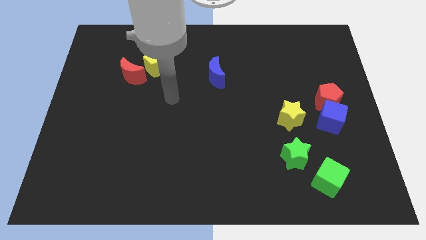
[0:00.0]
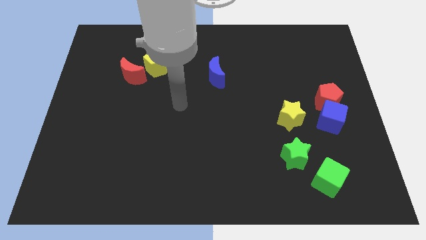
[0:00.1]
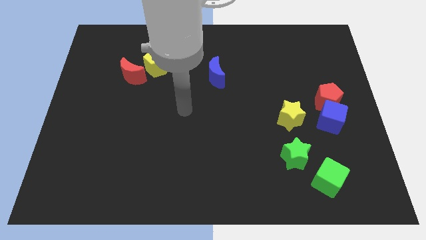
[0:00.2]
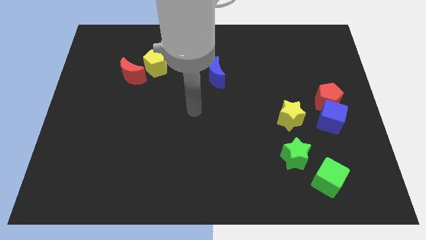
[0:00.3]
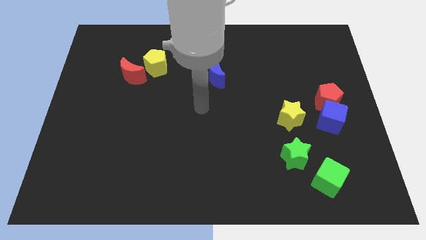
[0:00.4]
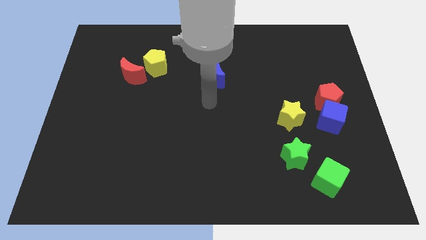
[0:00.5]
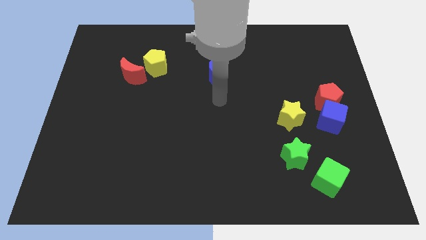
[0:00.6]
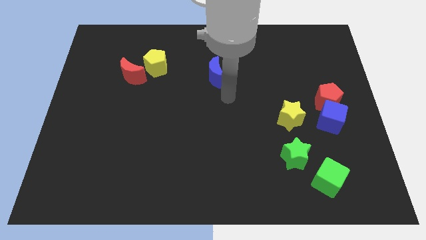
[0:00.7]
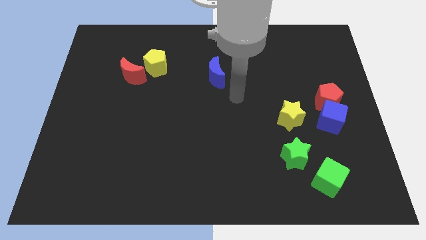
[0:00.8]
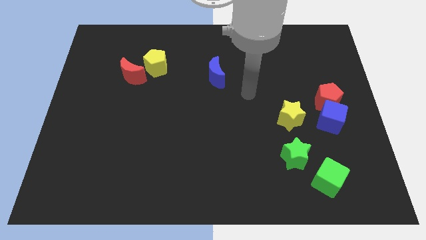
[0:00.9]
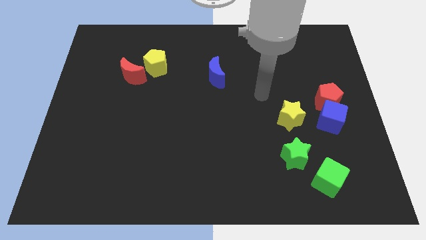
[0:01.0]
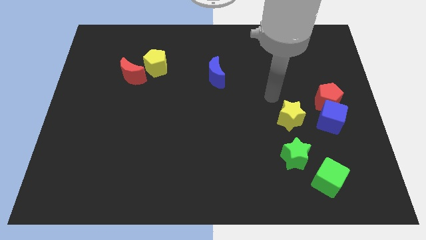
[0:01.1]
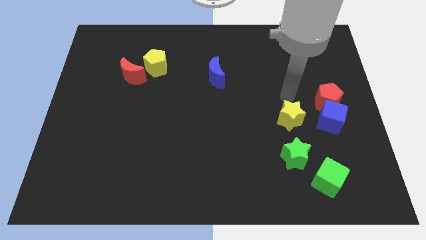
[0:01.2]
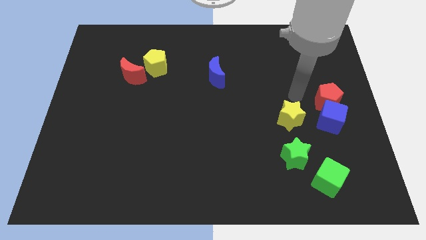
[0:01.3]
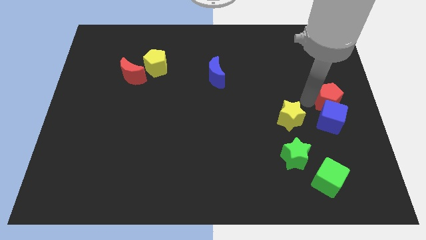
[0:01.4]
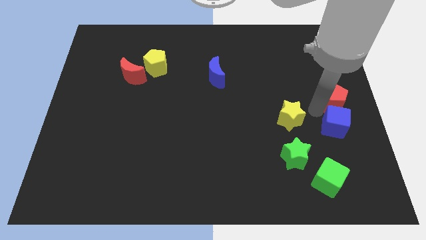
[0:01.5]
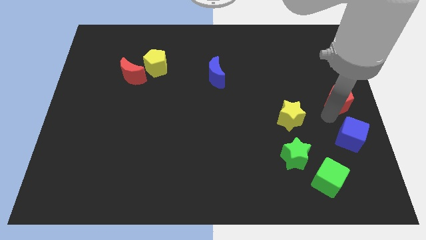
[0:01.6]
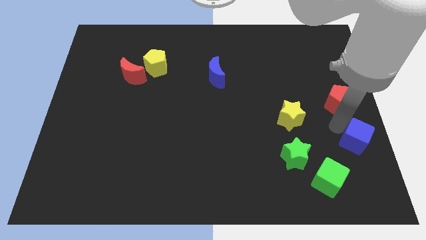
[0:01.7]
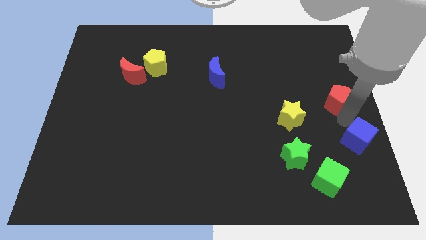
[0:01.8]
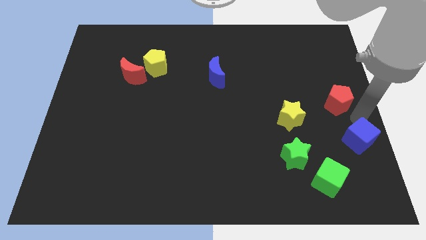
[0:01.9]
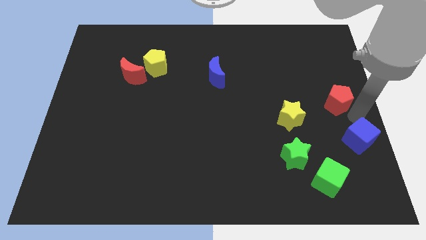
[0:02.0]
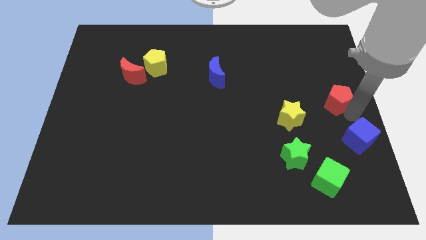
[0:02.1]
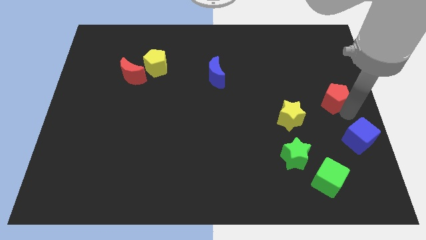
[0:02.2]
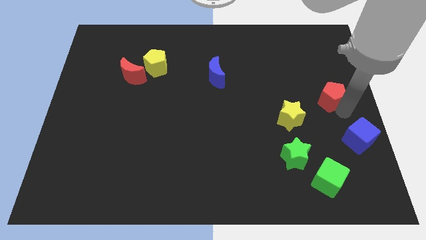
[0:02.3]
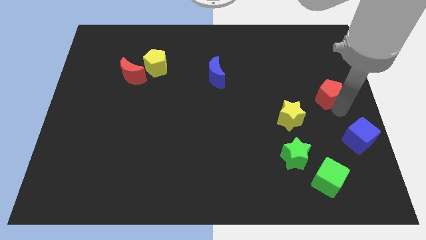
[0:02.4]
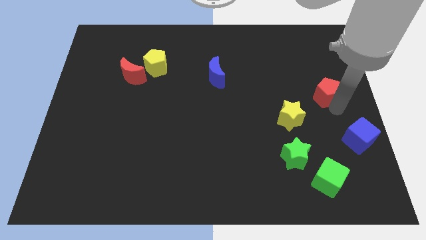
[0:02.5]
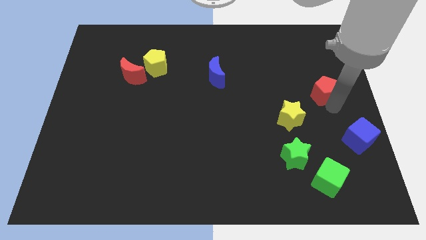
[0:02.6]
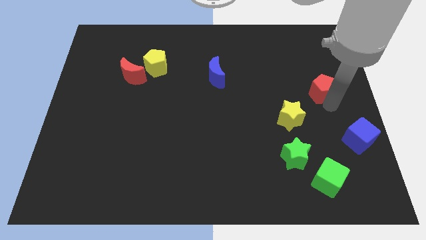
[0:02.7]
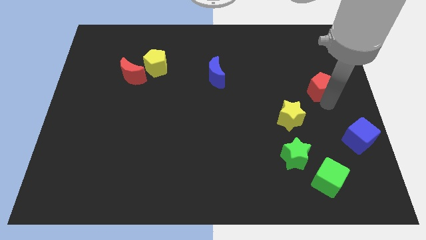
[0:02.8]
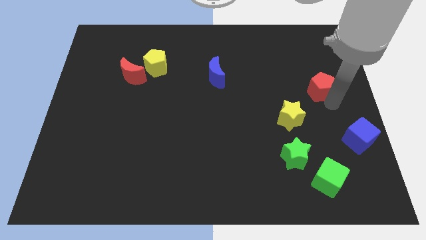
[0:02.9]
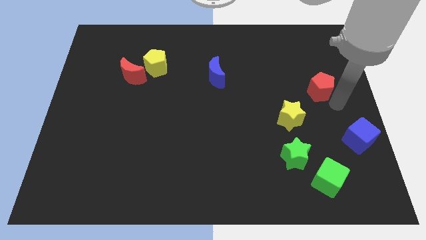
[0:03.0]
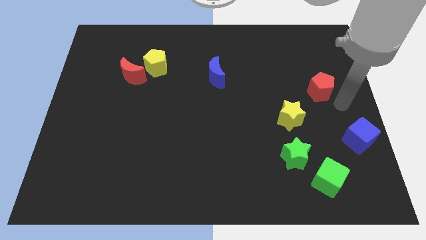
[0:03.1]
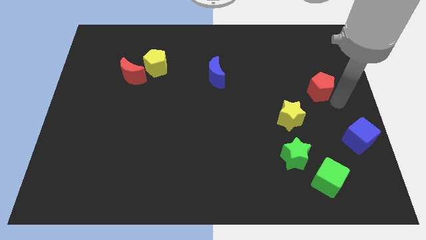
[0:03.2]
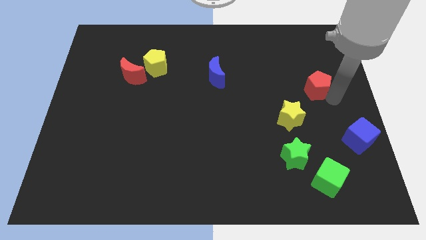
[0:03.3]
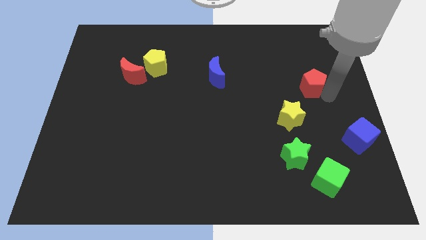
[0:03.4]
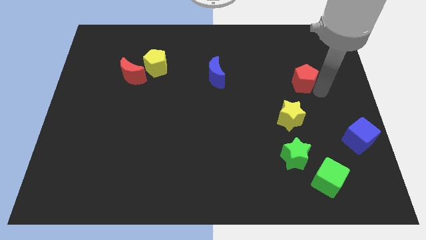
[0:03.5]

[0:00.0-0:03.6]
move the red pentagon up and to the left diagonally a little

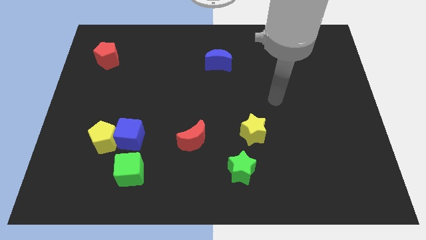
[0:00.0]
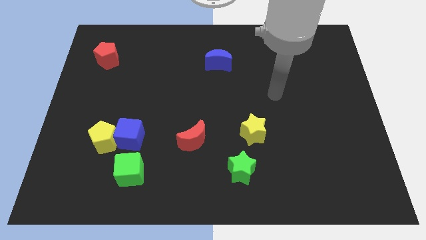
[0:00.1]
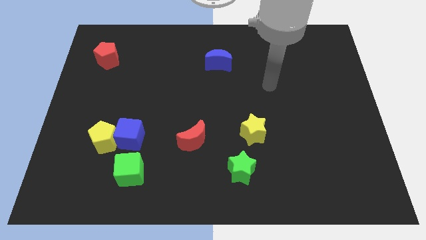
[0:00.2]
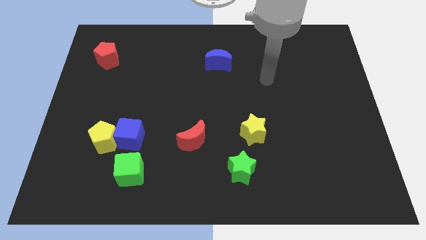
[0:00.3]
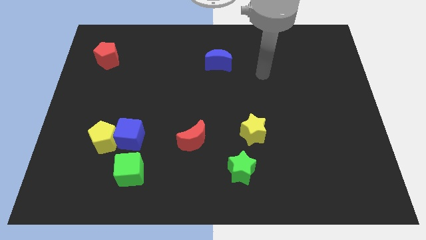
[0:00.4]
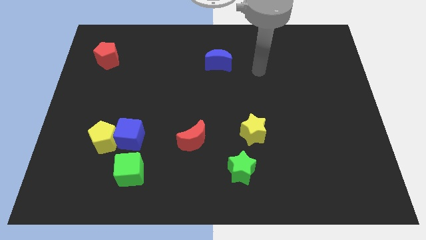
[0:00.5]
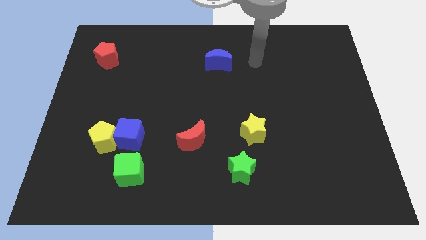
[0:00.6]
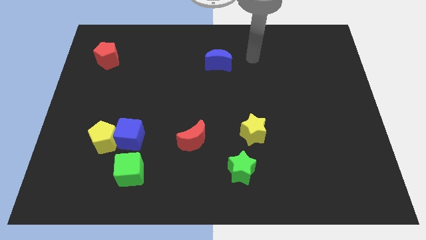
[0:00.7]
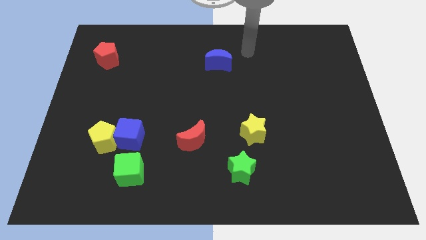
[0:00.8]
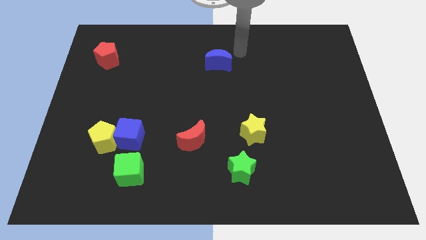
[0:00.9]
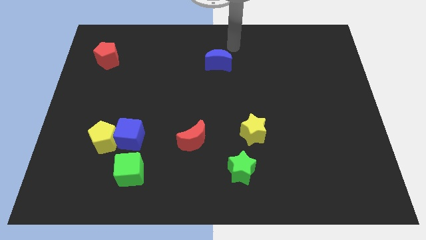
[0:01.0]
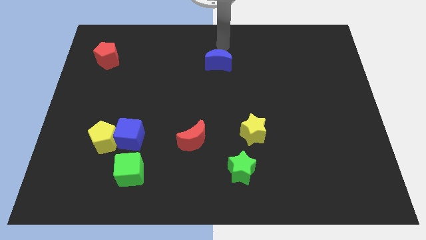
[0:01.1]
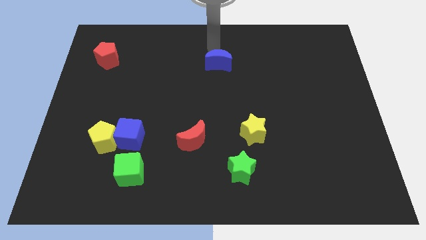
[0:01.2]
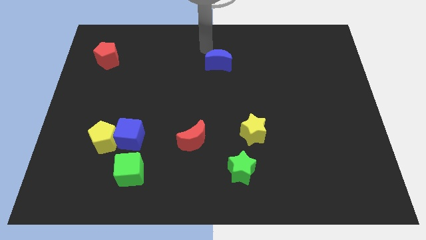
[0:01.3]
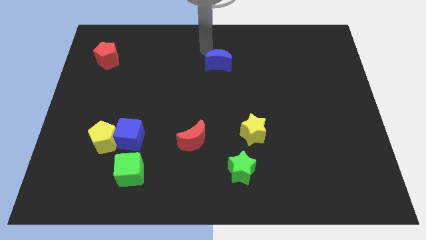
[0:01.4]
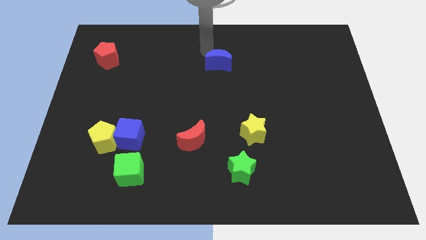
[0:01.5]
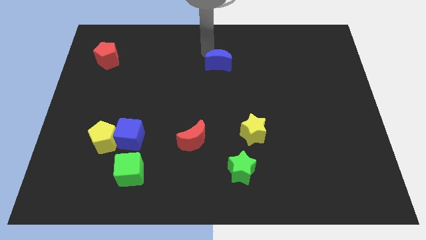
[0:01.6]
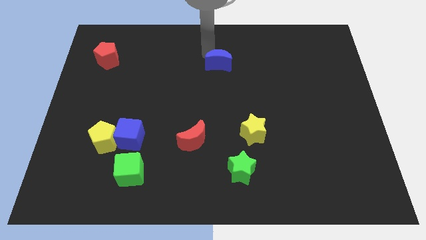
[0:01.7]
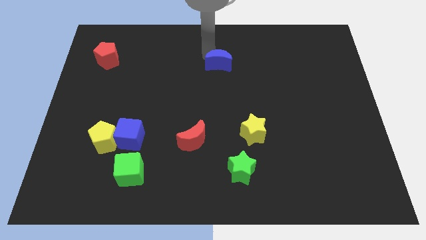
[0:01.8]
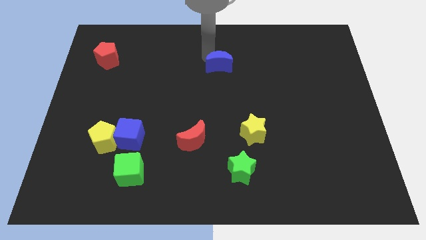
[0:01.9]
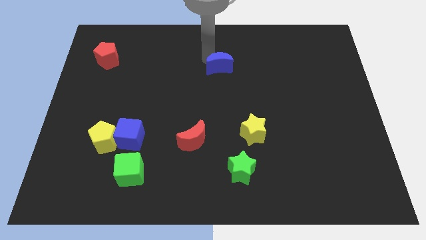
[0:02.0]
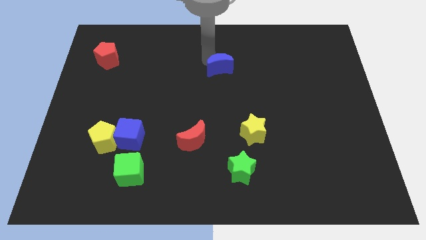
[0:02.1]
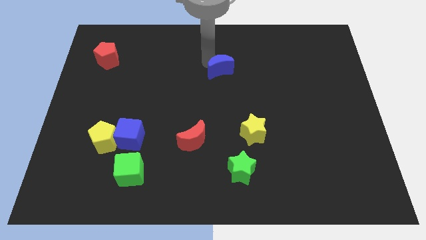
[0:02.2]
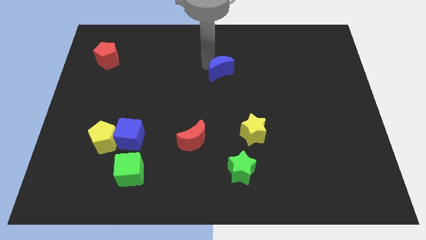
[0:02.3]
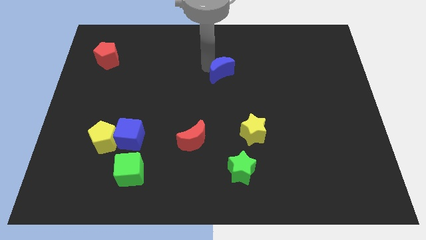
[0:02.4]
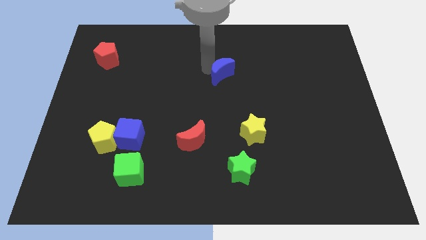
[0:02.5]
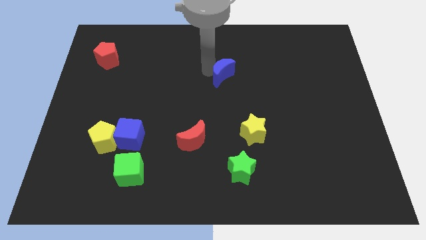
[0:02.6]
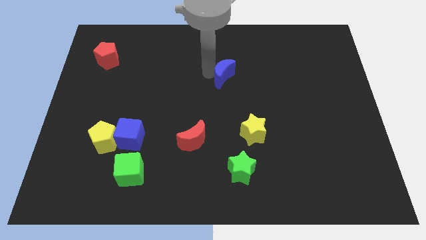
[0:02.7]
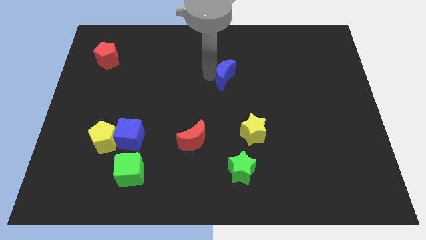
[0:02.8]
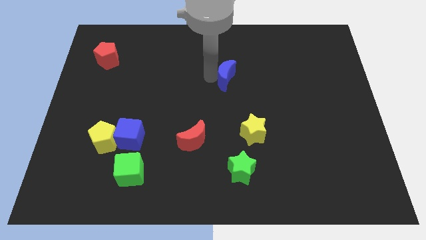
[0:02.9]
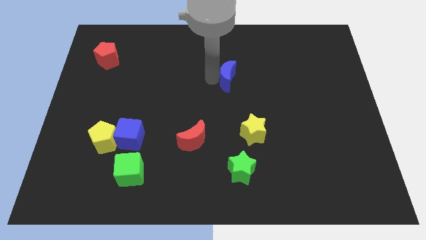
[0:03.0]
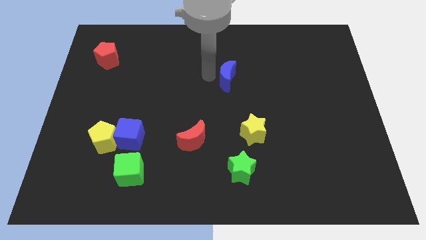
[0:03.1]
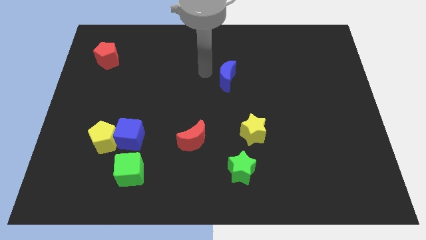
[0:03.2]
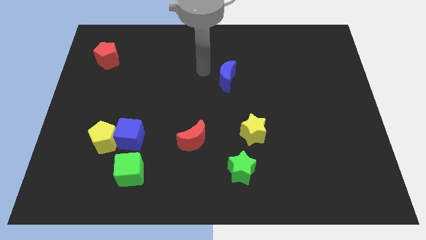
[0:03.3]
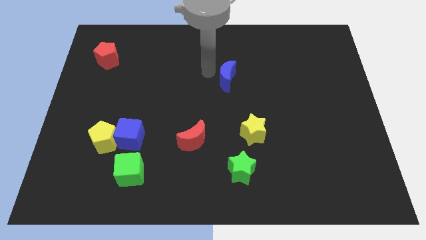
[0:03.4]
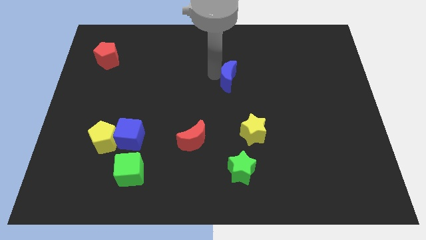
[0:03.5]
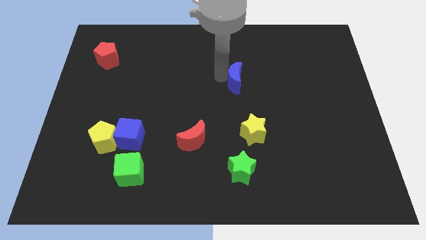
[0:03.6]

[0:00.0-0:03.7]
push the blue moon down and to the right a bit

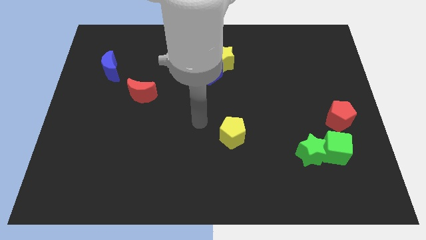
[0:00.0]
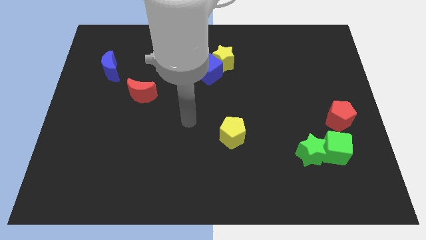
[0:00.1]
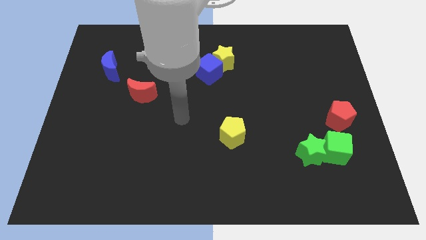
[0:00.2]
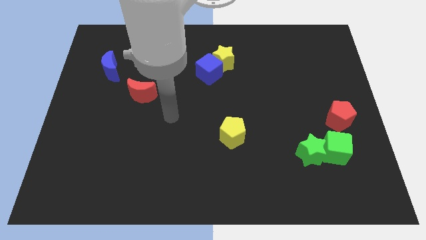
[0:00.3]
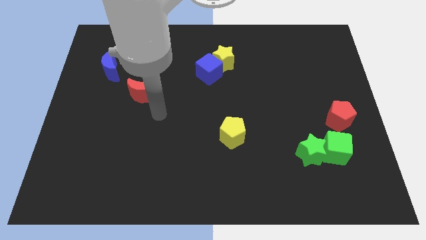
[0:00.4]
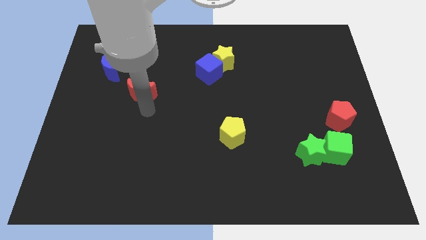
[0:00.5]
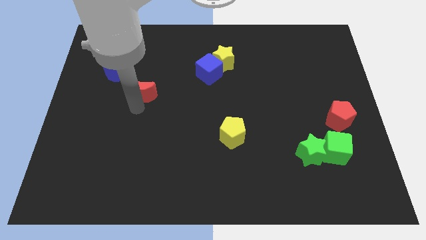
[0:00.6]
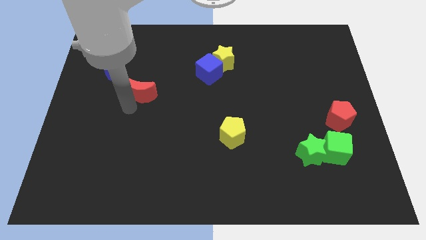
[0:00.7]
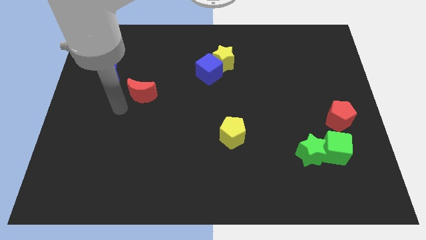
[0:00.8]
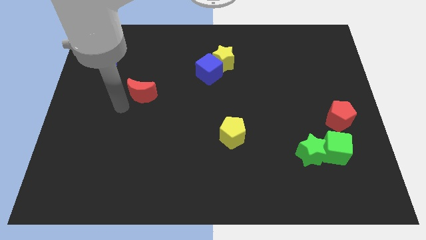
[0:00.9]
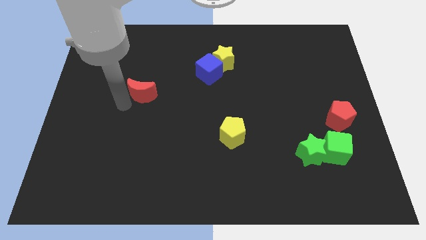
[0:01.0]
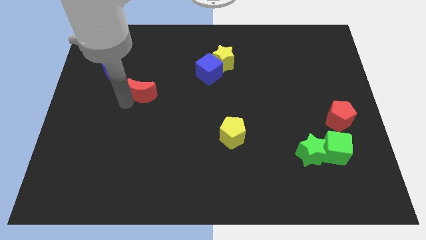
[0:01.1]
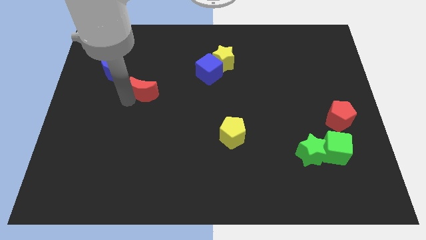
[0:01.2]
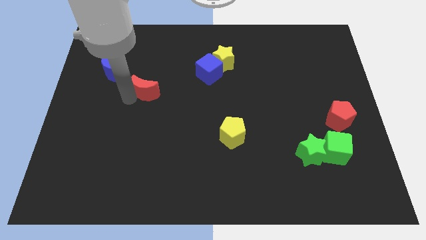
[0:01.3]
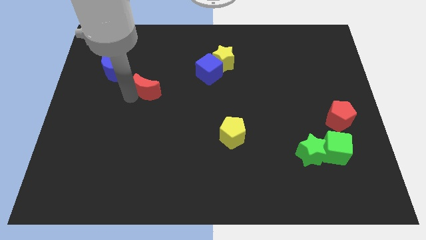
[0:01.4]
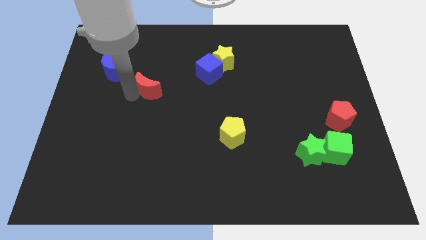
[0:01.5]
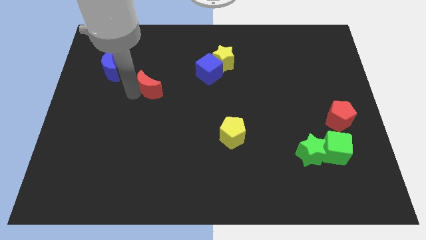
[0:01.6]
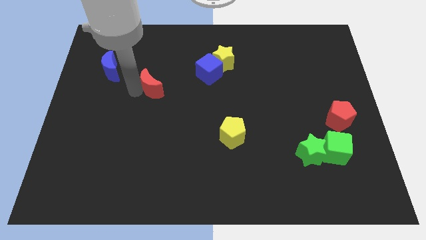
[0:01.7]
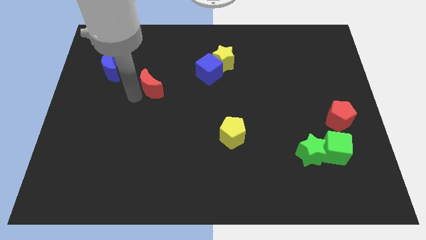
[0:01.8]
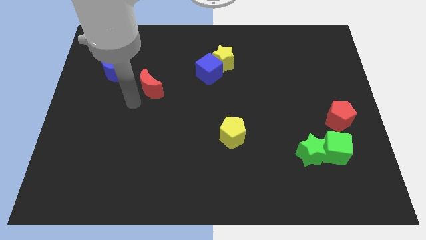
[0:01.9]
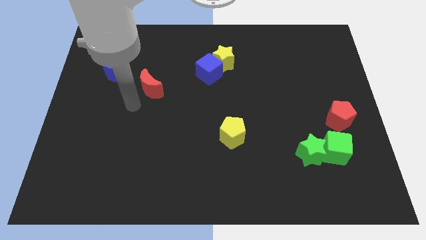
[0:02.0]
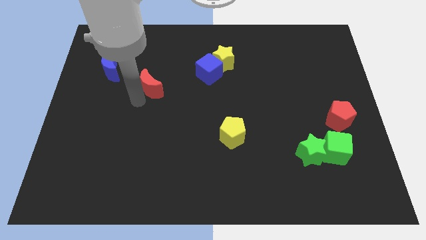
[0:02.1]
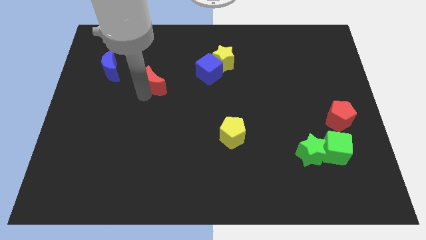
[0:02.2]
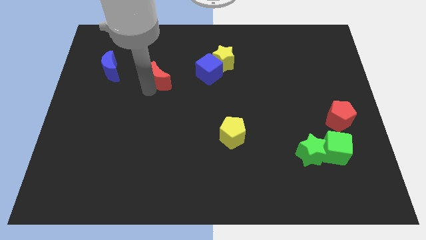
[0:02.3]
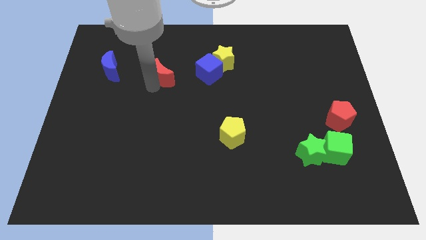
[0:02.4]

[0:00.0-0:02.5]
move the red moon somewhat up and to the right diagonally
